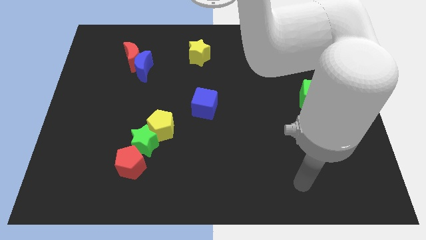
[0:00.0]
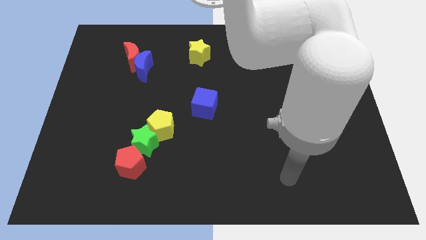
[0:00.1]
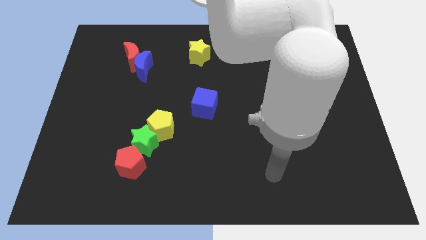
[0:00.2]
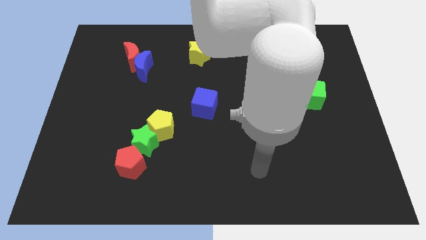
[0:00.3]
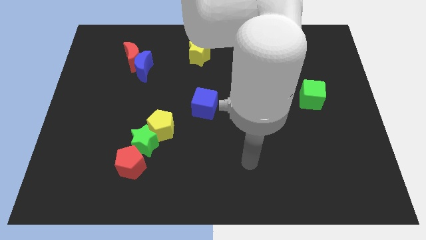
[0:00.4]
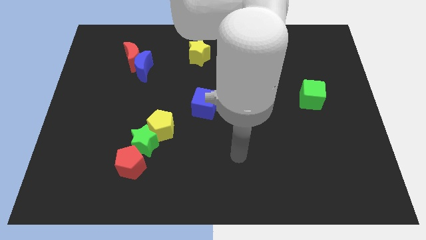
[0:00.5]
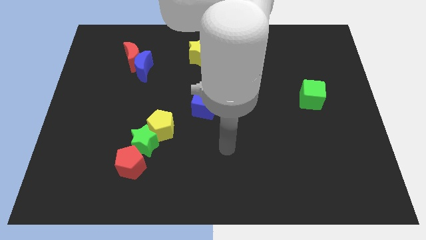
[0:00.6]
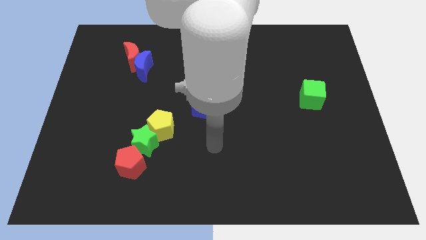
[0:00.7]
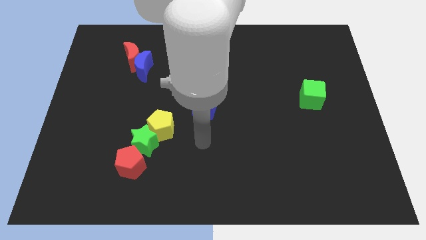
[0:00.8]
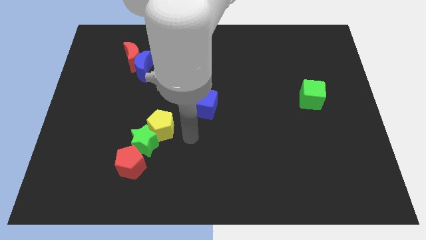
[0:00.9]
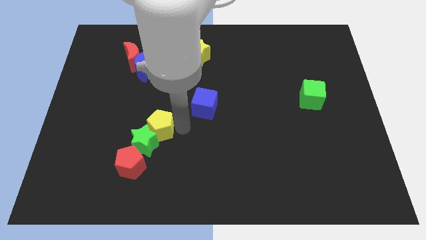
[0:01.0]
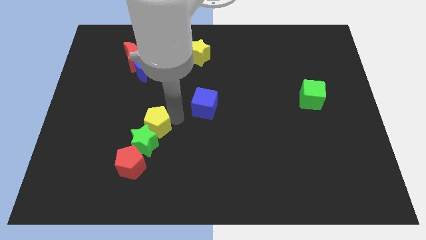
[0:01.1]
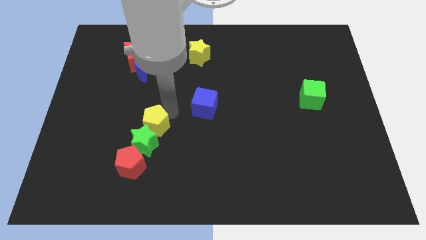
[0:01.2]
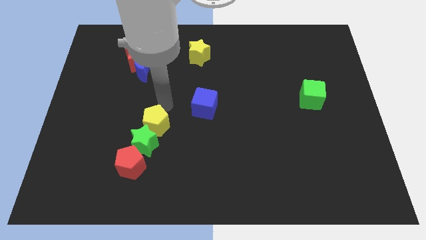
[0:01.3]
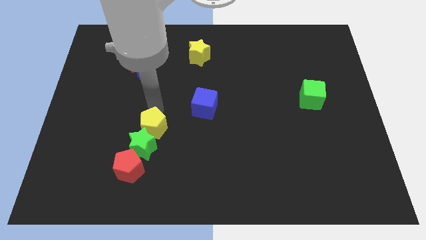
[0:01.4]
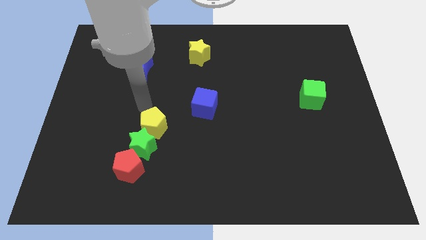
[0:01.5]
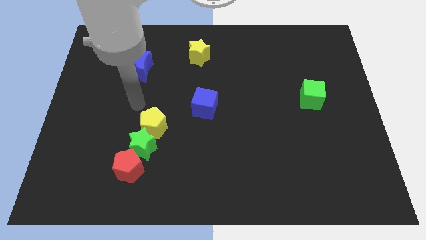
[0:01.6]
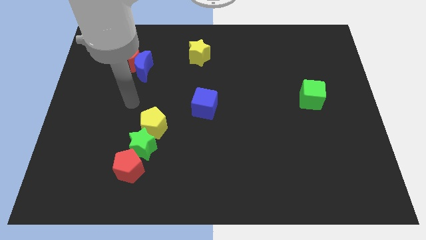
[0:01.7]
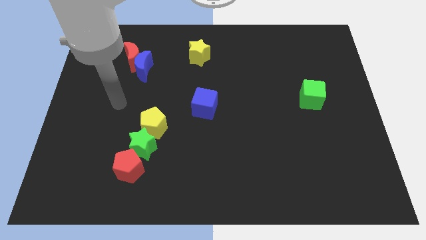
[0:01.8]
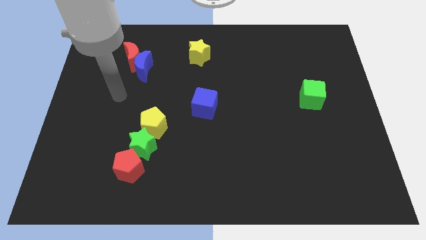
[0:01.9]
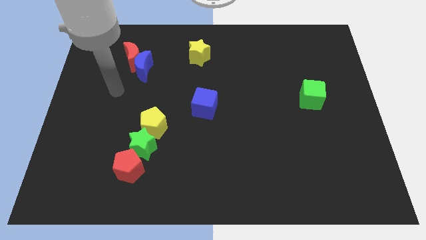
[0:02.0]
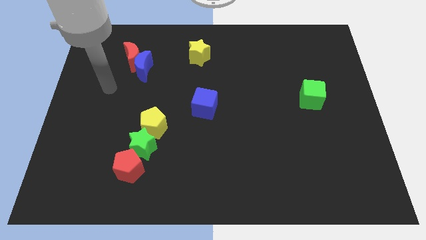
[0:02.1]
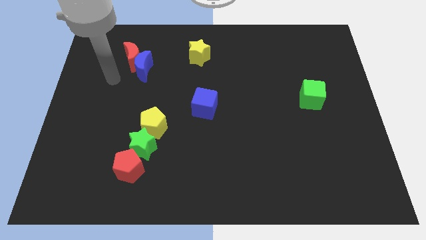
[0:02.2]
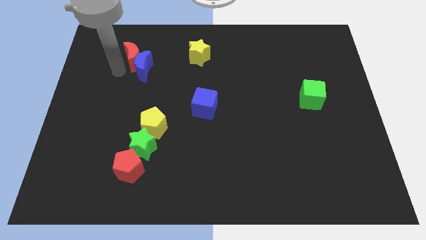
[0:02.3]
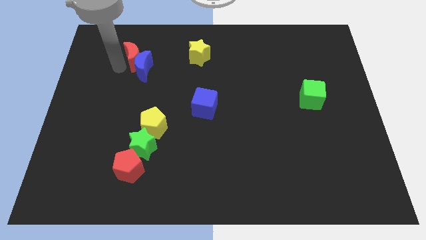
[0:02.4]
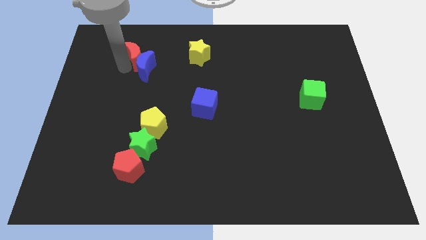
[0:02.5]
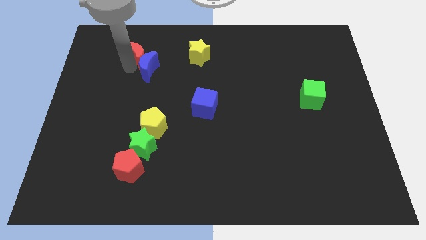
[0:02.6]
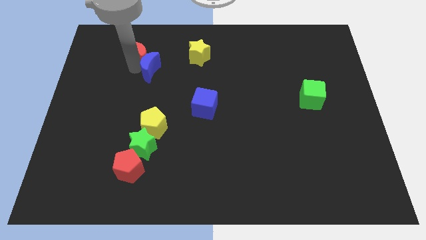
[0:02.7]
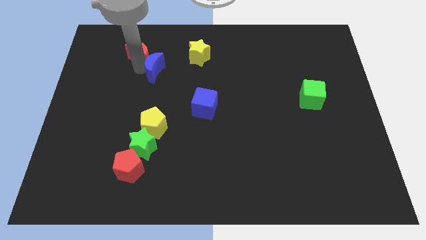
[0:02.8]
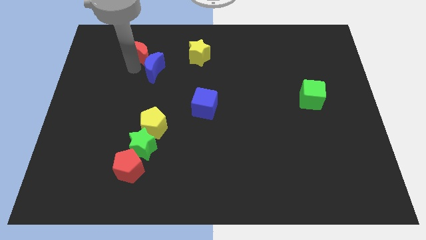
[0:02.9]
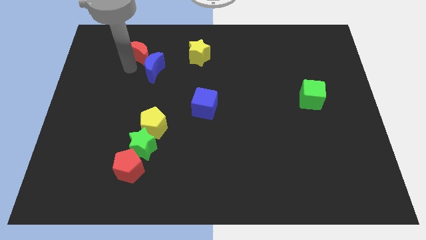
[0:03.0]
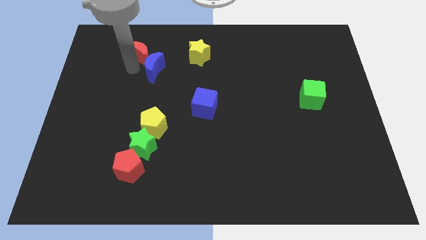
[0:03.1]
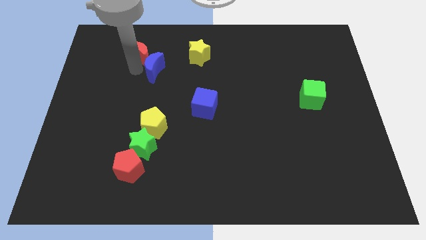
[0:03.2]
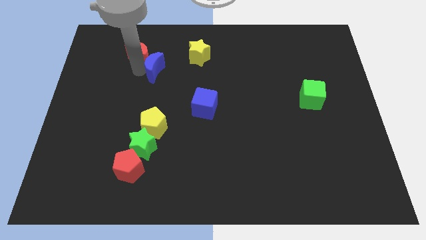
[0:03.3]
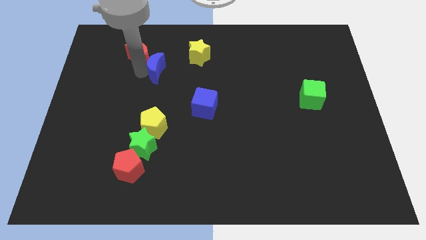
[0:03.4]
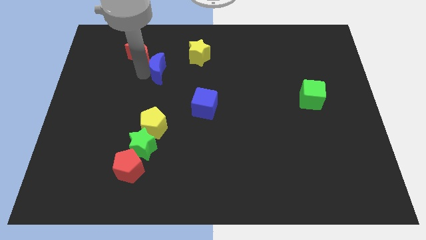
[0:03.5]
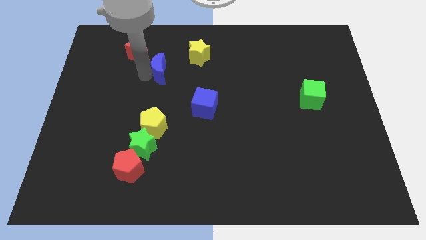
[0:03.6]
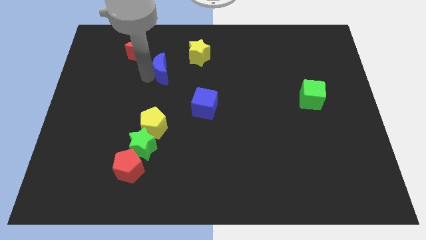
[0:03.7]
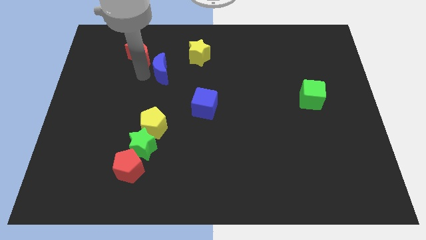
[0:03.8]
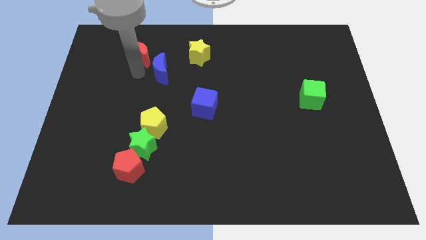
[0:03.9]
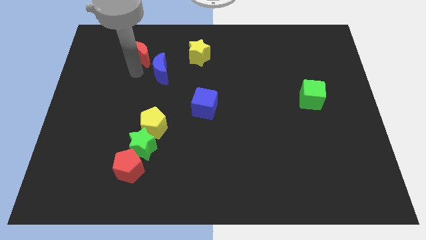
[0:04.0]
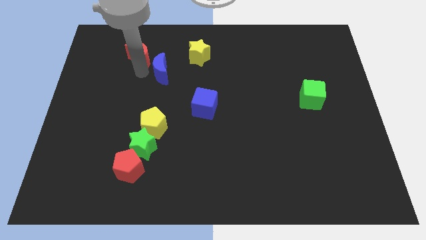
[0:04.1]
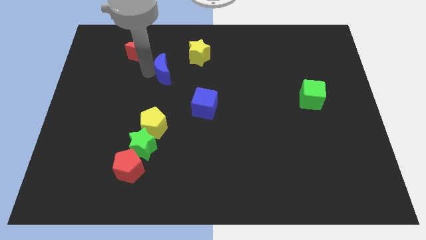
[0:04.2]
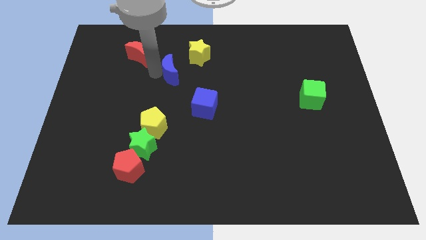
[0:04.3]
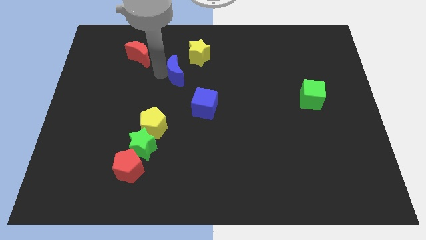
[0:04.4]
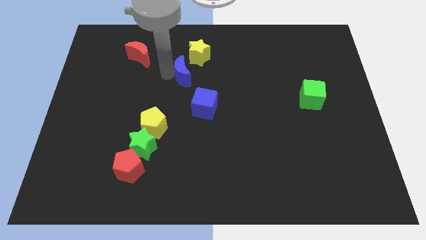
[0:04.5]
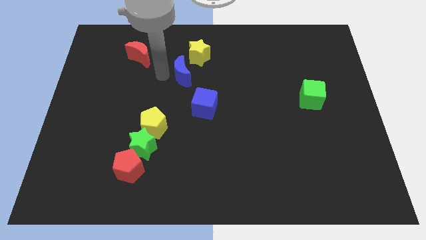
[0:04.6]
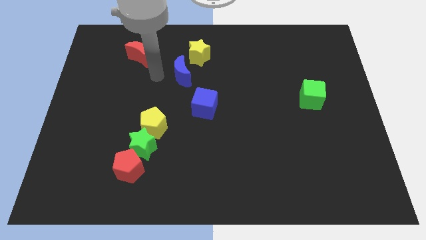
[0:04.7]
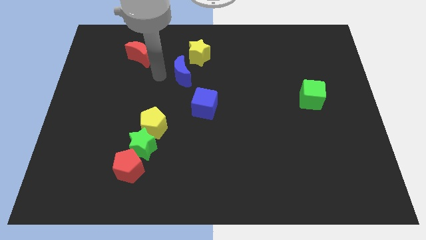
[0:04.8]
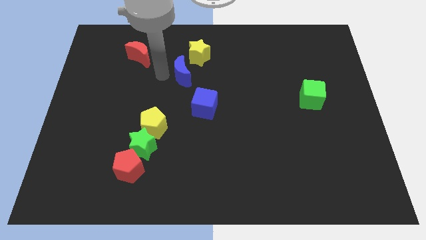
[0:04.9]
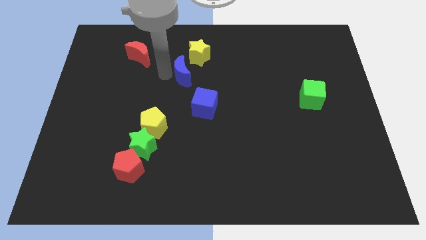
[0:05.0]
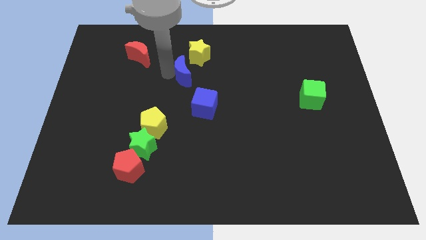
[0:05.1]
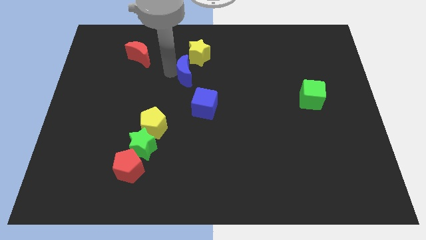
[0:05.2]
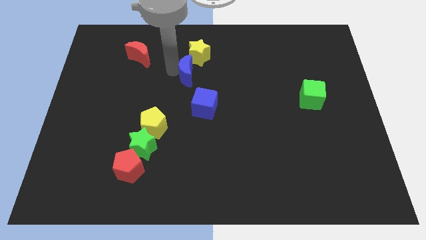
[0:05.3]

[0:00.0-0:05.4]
put the blue moon to the top of the blue cube
